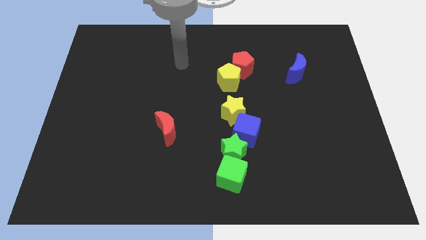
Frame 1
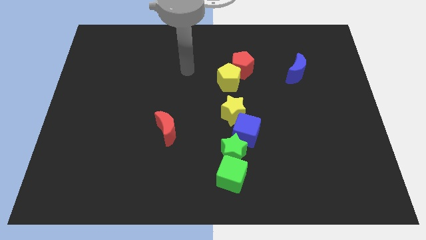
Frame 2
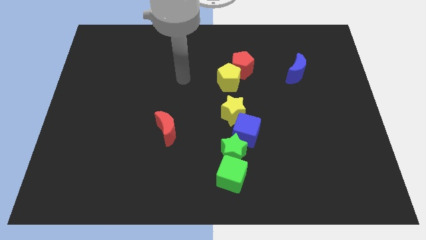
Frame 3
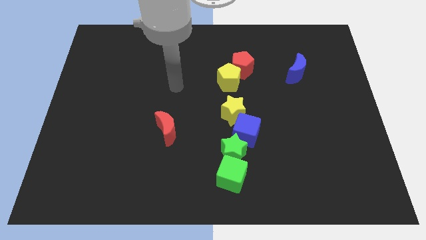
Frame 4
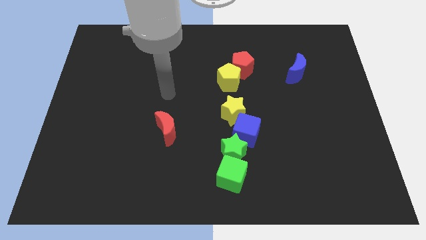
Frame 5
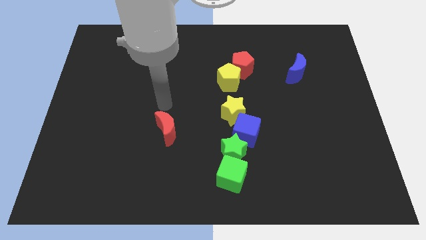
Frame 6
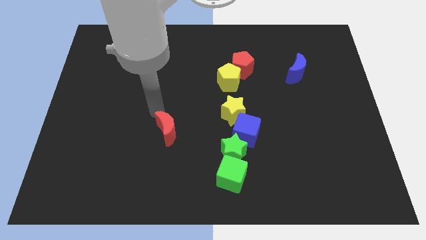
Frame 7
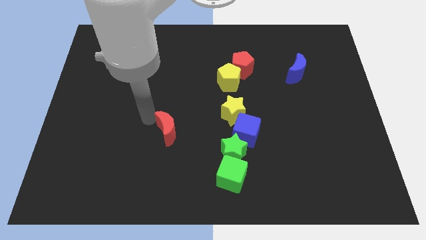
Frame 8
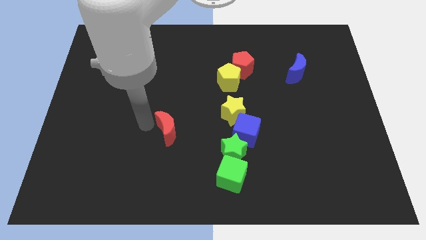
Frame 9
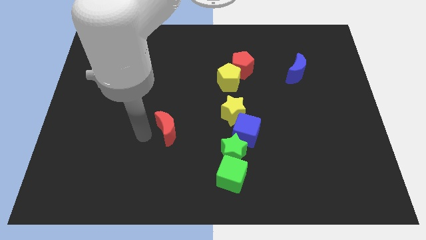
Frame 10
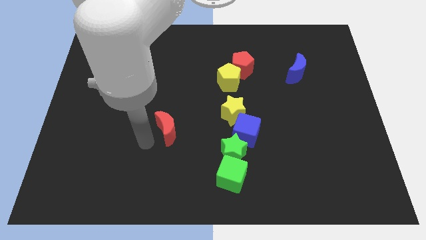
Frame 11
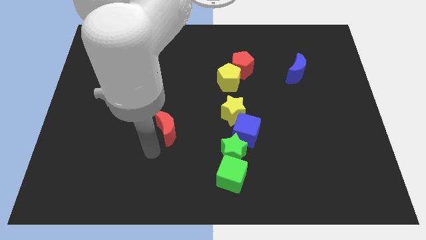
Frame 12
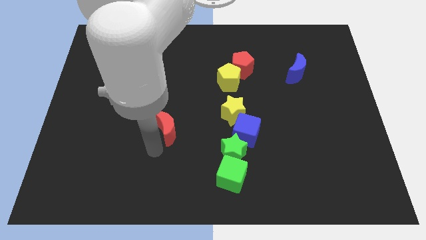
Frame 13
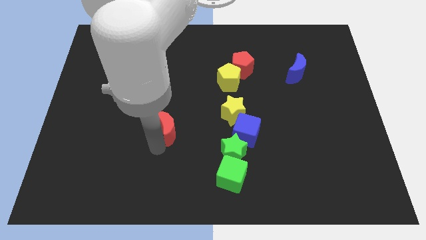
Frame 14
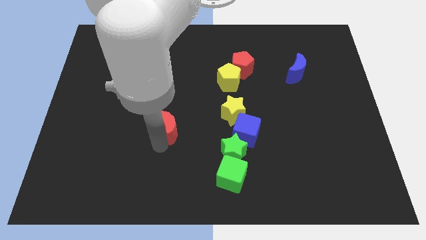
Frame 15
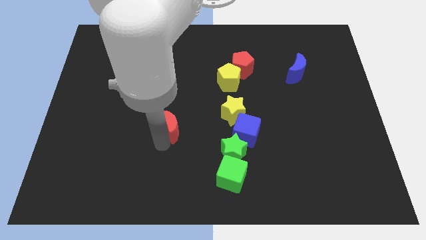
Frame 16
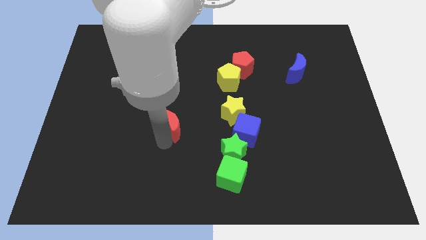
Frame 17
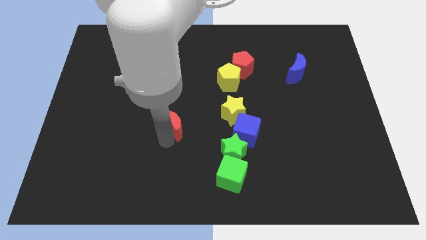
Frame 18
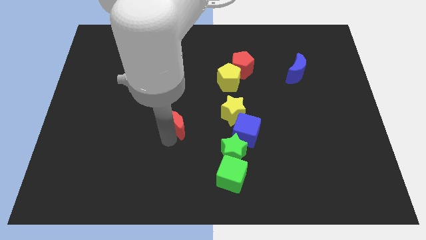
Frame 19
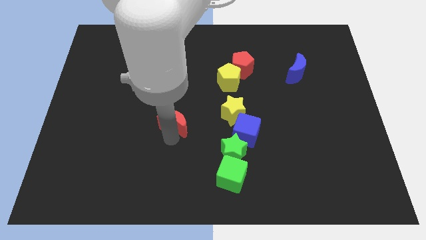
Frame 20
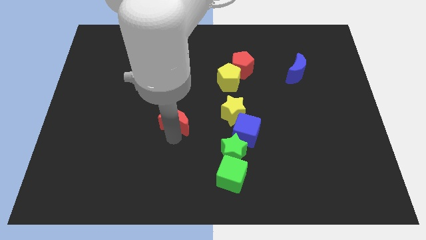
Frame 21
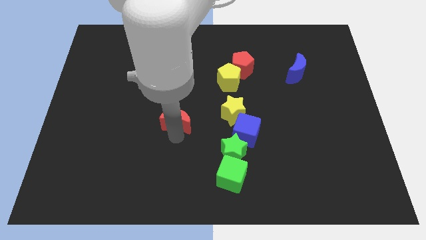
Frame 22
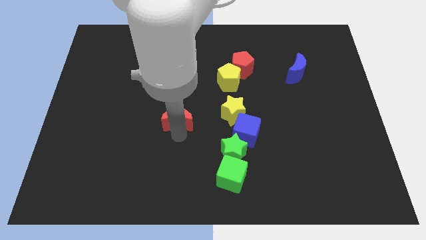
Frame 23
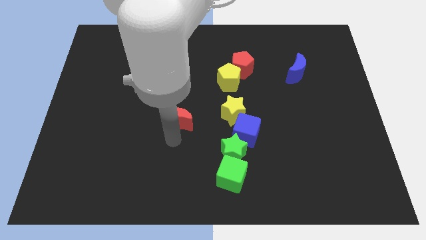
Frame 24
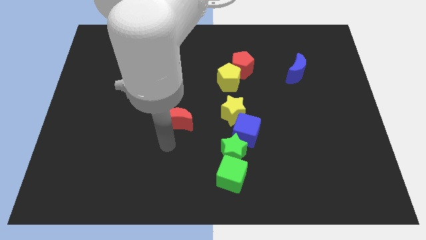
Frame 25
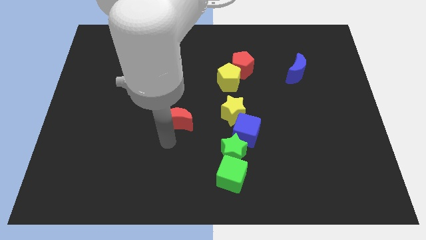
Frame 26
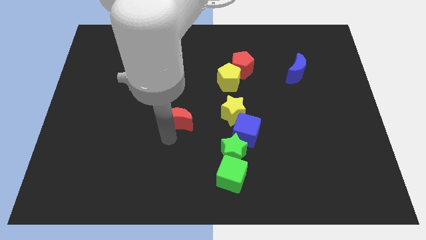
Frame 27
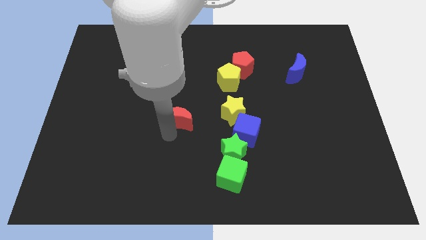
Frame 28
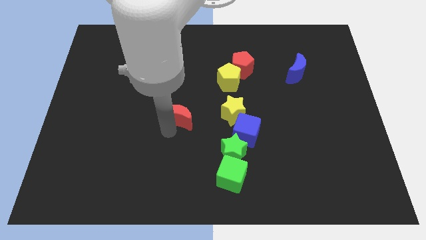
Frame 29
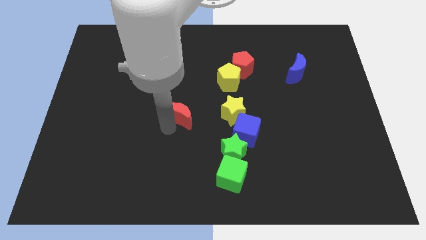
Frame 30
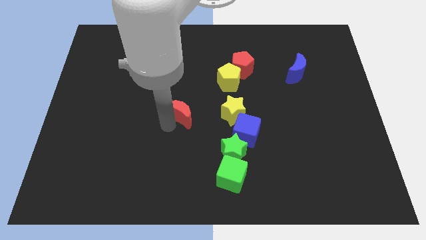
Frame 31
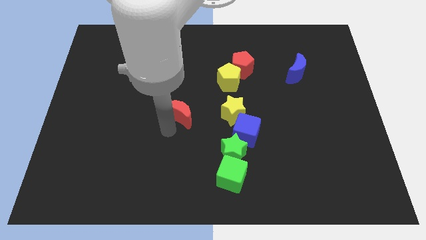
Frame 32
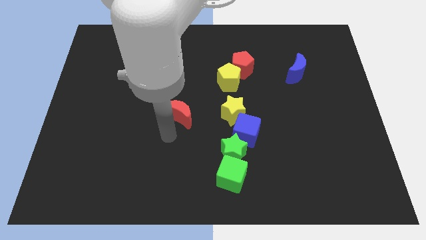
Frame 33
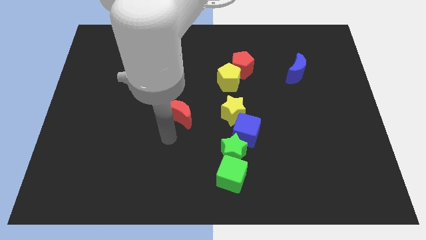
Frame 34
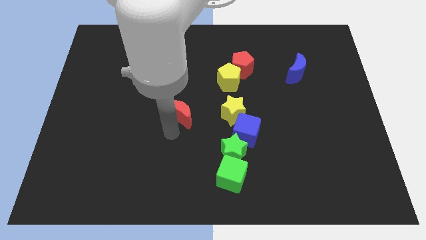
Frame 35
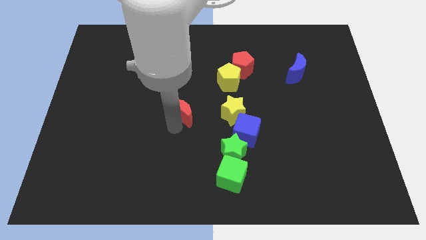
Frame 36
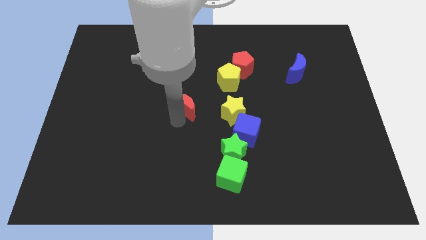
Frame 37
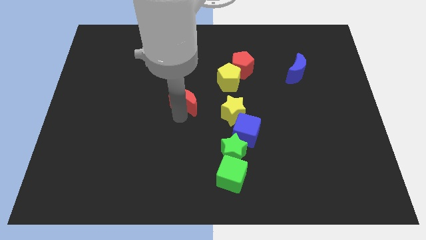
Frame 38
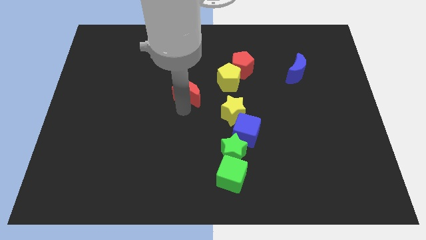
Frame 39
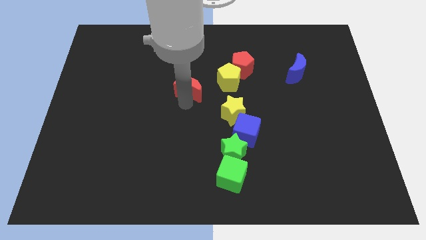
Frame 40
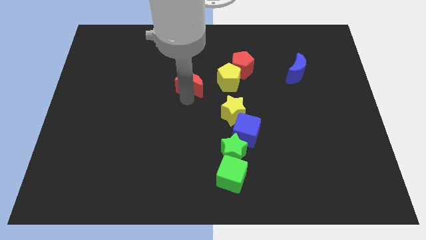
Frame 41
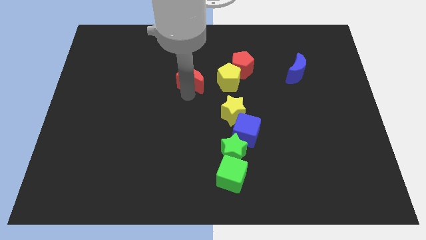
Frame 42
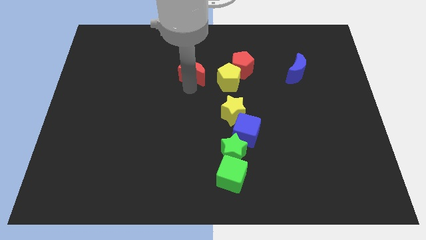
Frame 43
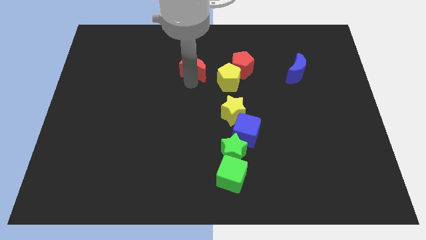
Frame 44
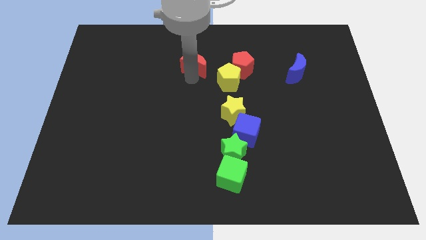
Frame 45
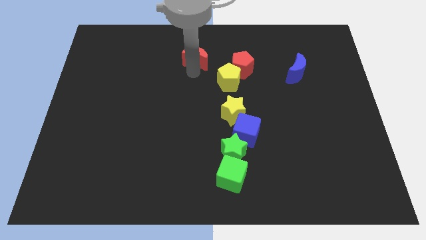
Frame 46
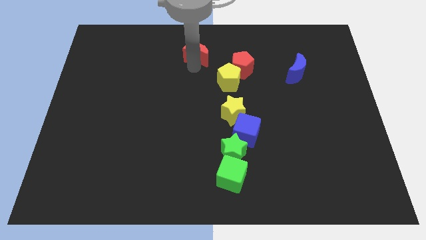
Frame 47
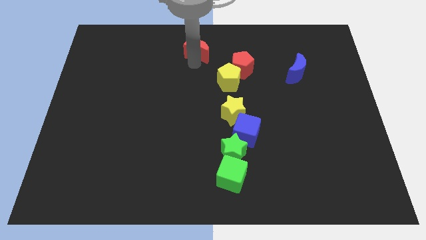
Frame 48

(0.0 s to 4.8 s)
slide the red moon to the top

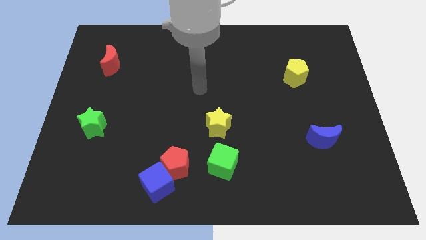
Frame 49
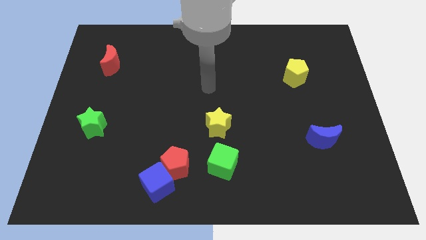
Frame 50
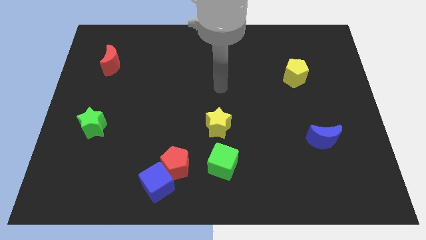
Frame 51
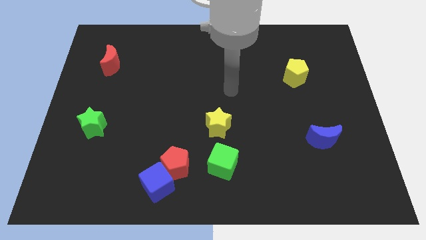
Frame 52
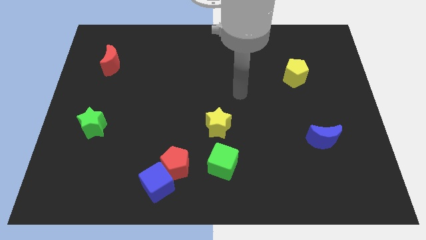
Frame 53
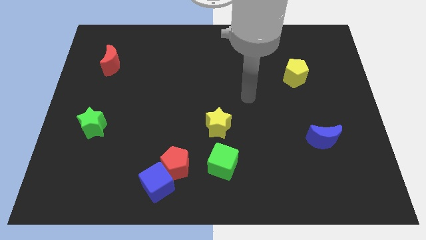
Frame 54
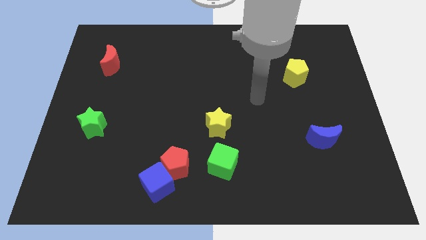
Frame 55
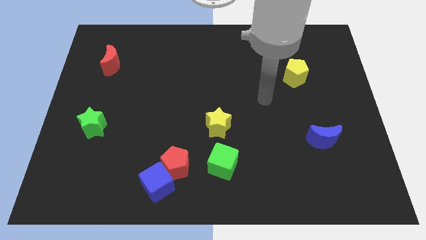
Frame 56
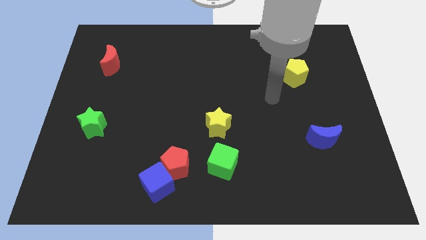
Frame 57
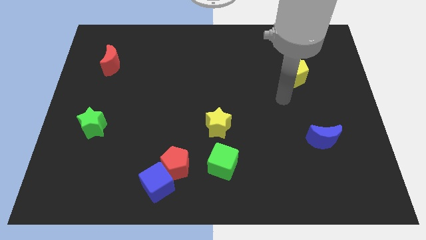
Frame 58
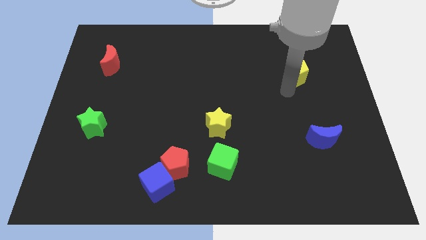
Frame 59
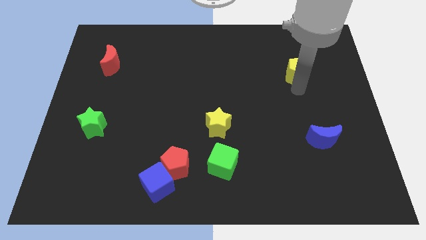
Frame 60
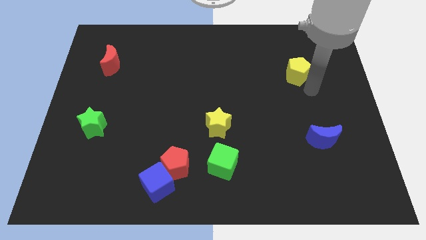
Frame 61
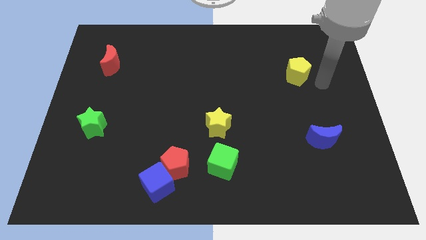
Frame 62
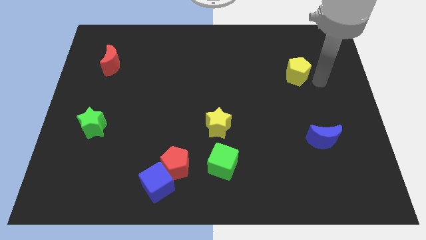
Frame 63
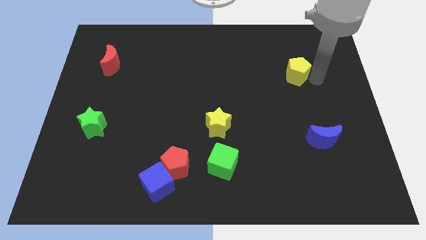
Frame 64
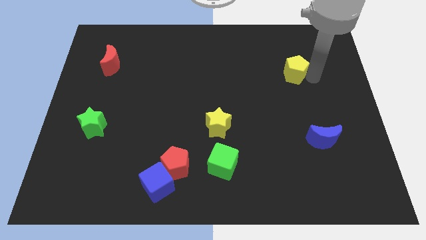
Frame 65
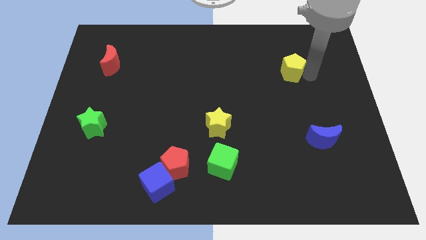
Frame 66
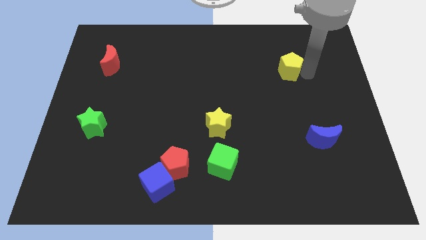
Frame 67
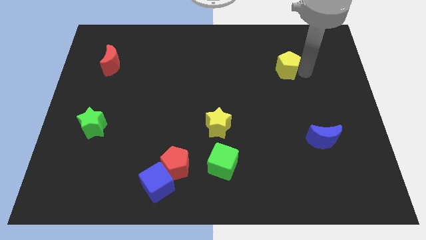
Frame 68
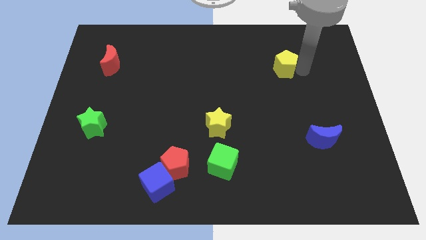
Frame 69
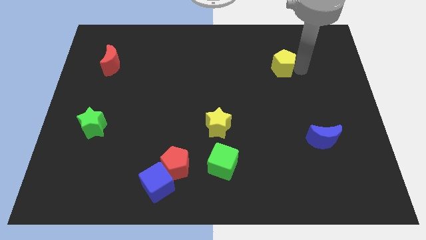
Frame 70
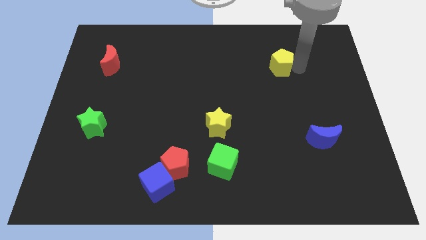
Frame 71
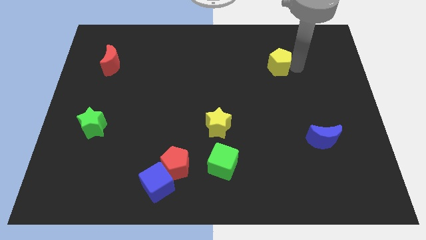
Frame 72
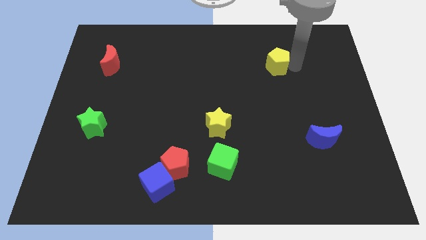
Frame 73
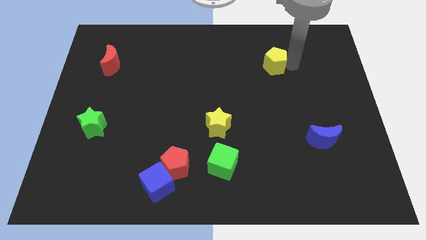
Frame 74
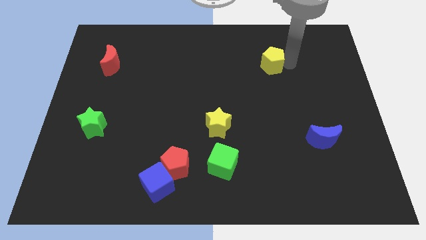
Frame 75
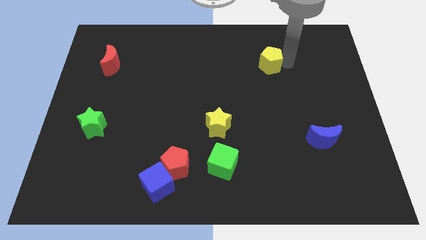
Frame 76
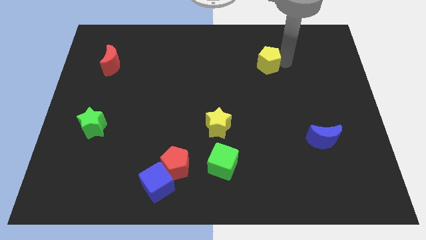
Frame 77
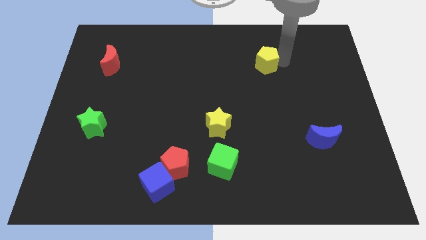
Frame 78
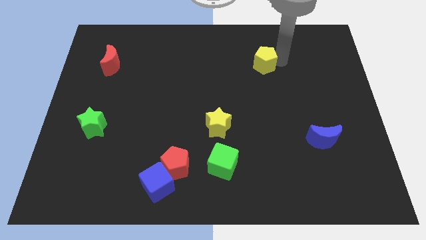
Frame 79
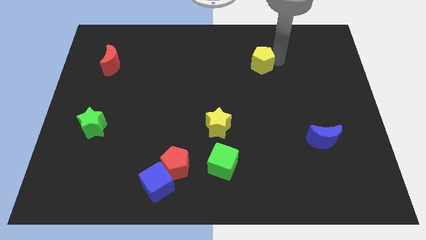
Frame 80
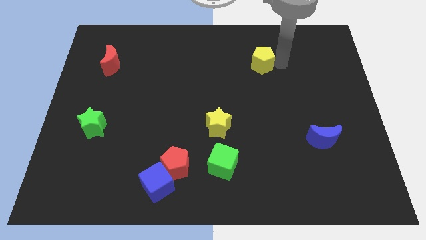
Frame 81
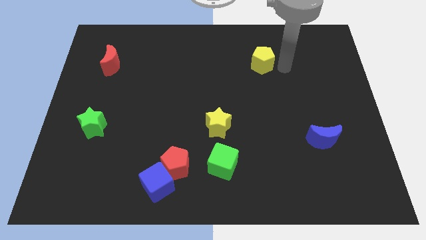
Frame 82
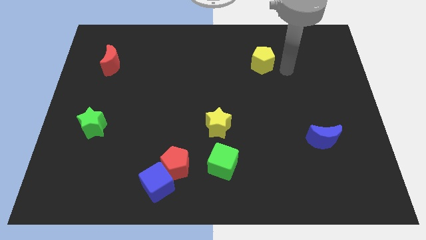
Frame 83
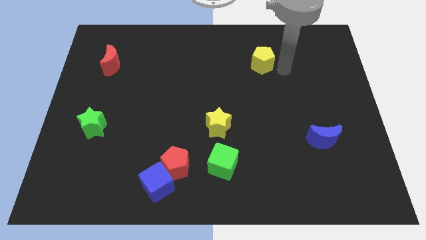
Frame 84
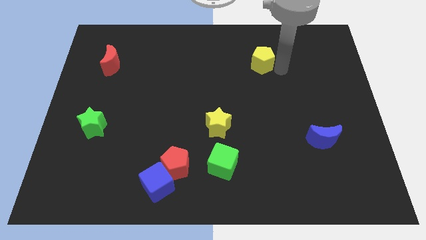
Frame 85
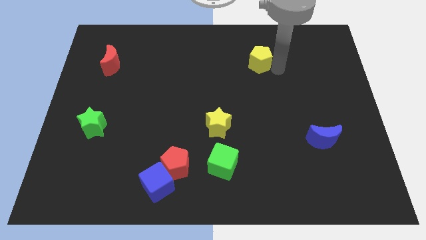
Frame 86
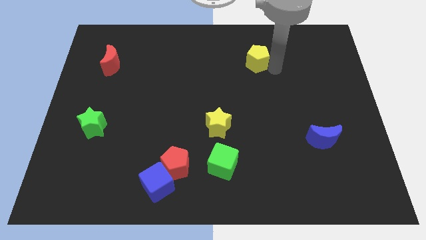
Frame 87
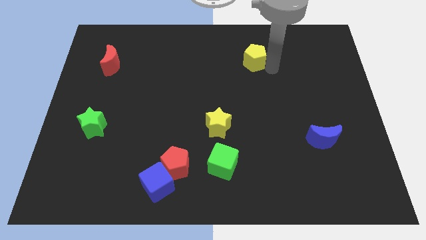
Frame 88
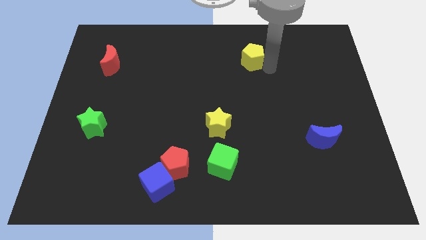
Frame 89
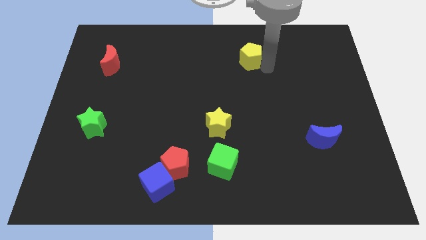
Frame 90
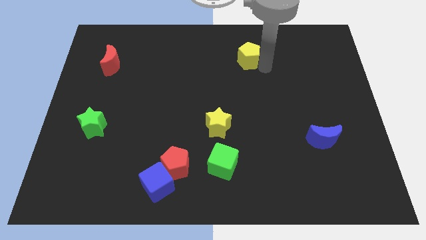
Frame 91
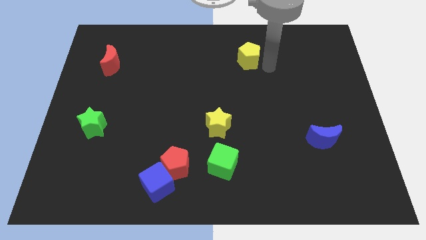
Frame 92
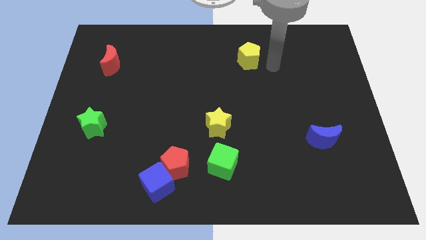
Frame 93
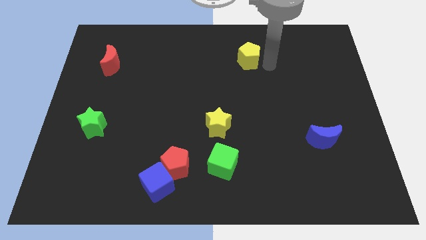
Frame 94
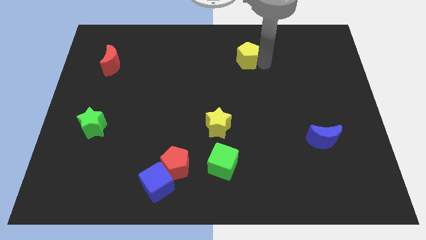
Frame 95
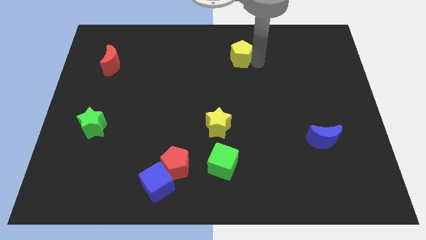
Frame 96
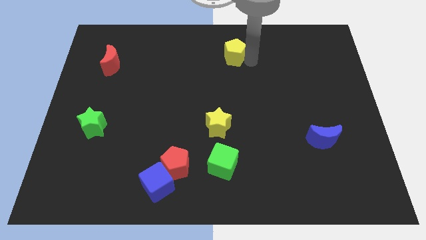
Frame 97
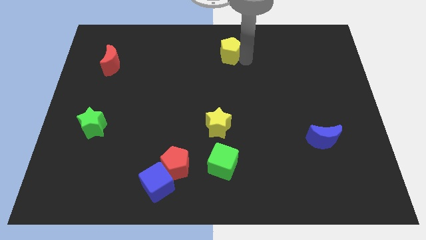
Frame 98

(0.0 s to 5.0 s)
push the yellow pentagon to the towards your base
